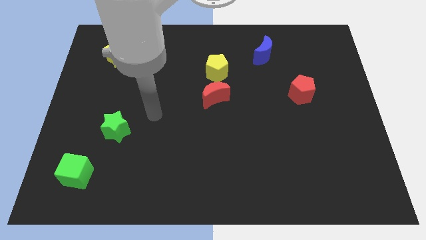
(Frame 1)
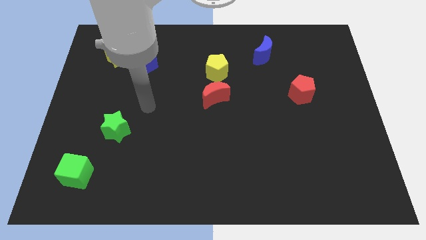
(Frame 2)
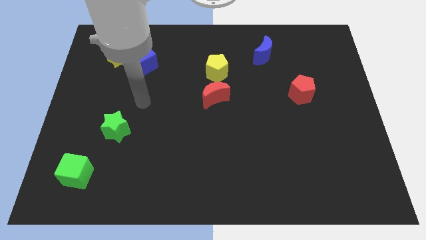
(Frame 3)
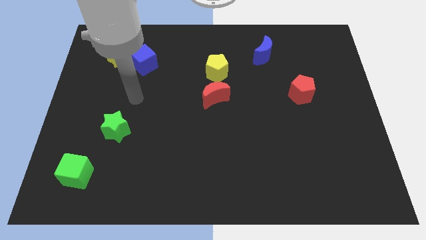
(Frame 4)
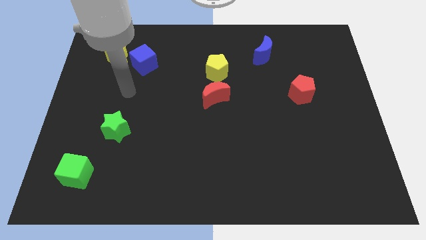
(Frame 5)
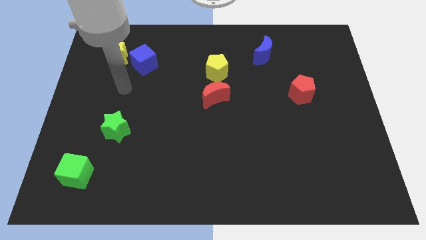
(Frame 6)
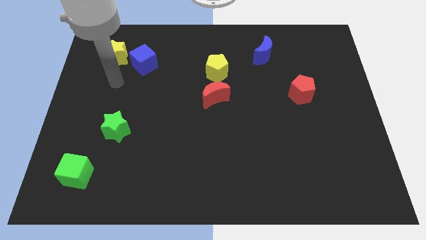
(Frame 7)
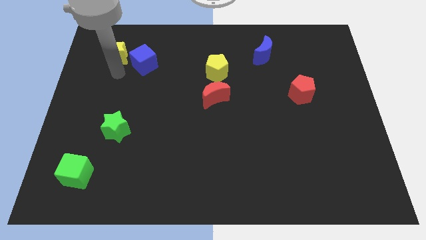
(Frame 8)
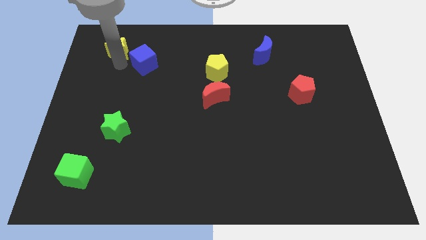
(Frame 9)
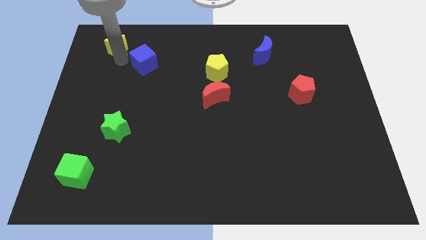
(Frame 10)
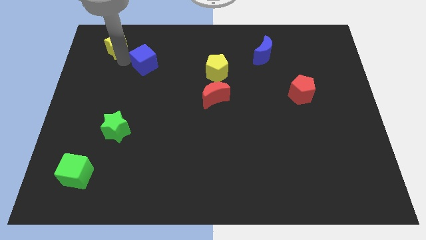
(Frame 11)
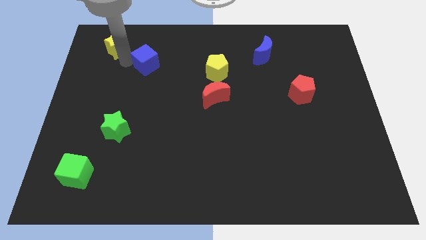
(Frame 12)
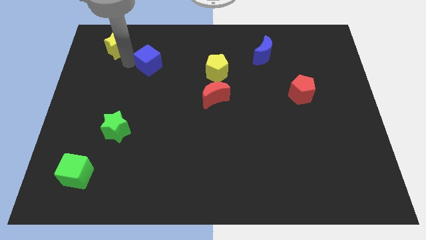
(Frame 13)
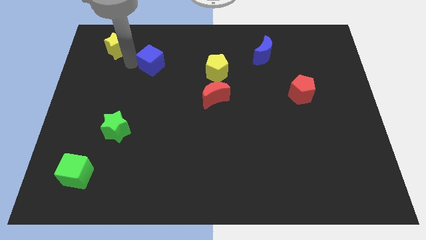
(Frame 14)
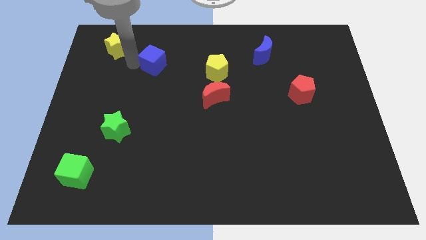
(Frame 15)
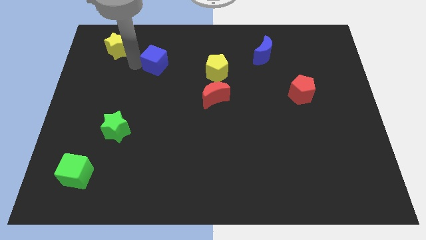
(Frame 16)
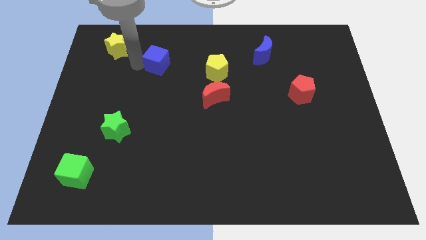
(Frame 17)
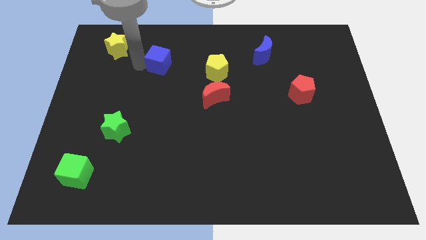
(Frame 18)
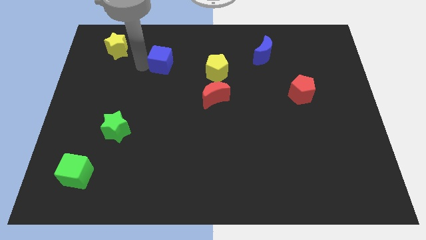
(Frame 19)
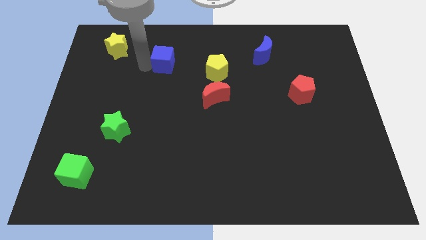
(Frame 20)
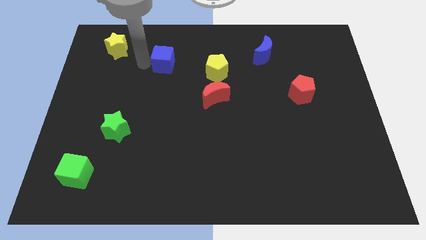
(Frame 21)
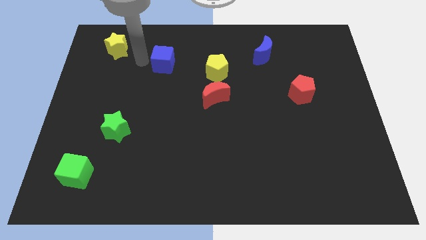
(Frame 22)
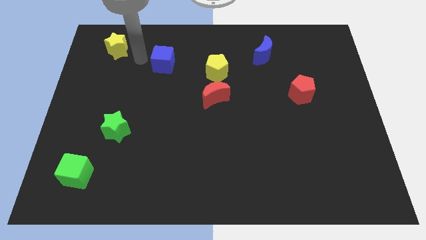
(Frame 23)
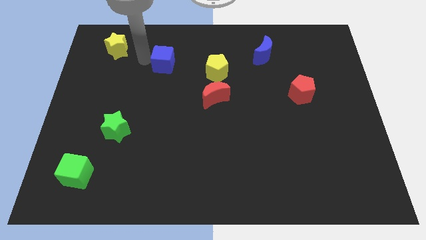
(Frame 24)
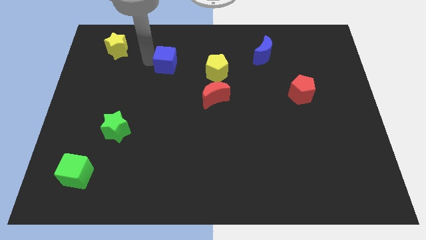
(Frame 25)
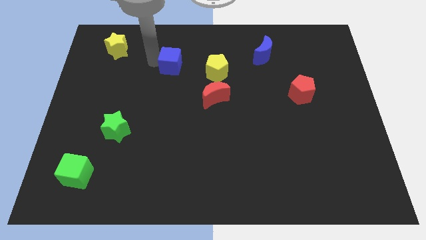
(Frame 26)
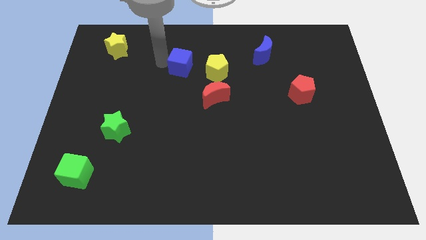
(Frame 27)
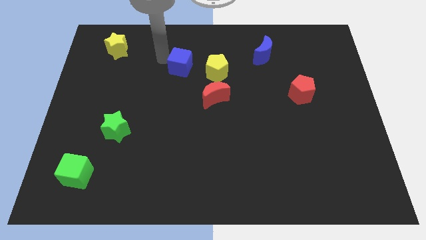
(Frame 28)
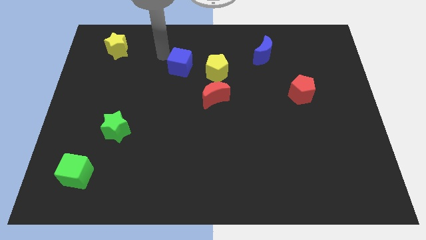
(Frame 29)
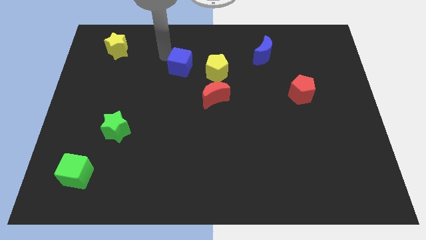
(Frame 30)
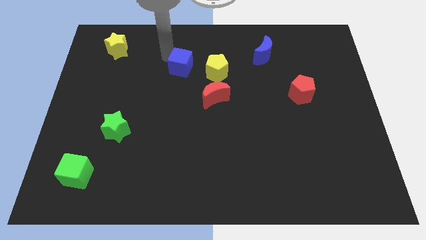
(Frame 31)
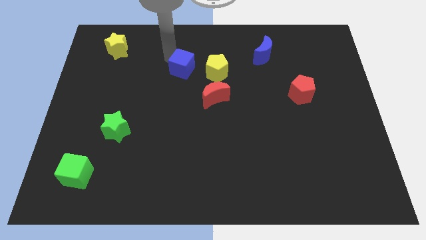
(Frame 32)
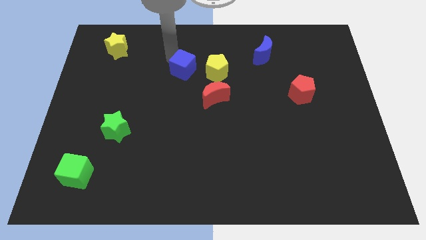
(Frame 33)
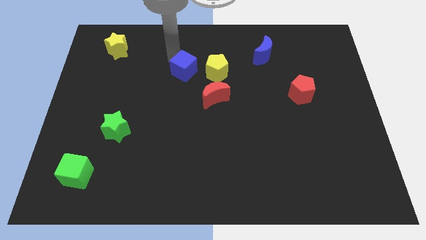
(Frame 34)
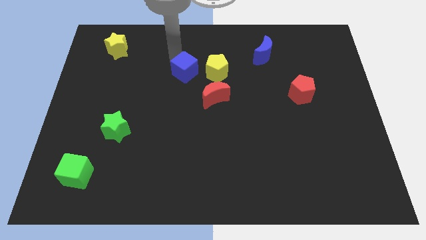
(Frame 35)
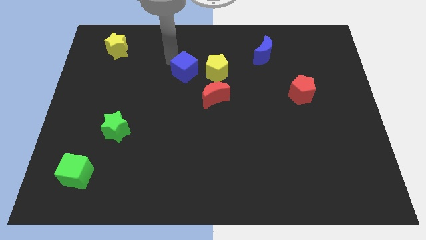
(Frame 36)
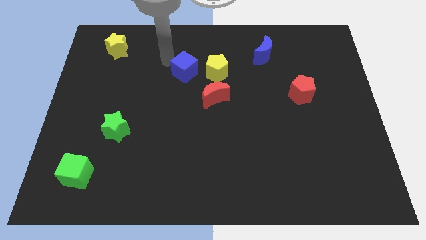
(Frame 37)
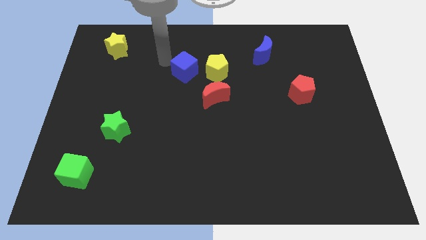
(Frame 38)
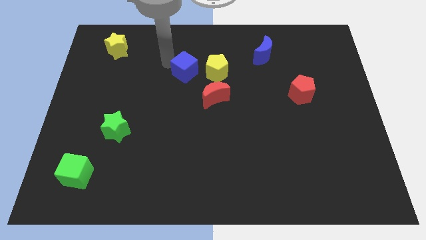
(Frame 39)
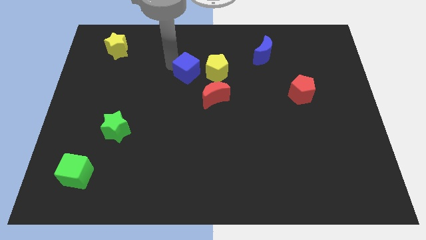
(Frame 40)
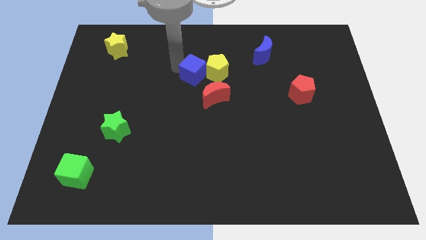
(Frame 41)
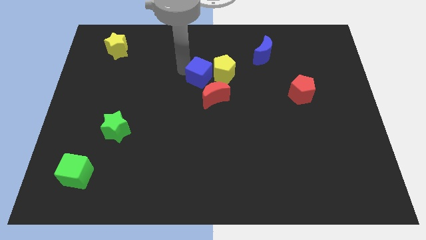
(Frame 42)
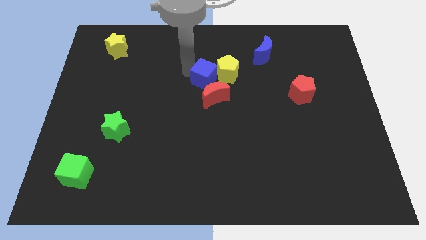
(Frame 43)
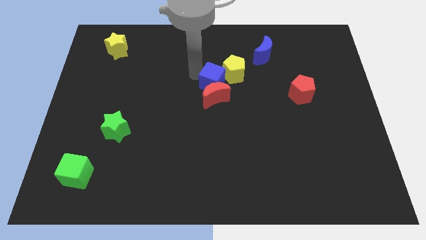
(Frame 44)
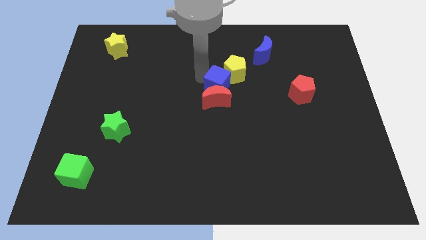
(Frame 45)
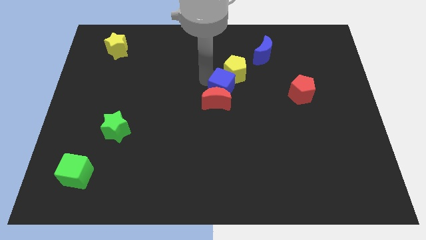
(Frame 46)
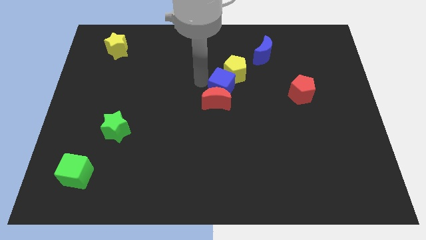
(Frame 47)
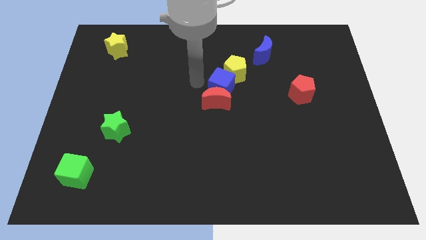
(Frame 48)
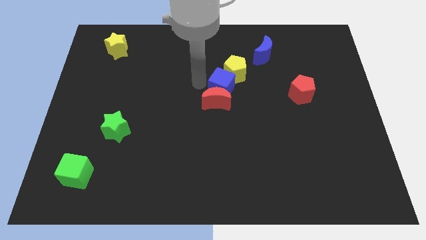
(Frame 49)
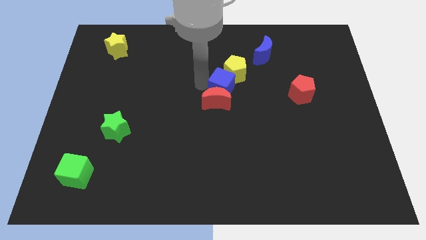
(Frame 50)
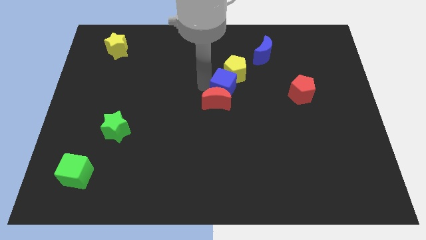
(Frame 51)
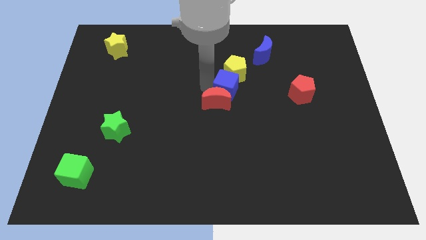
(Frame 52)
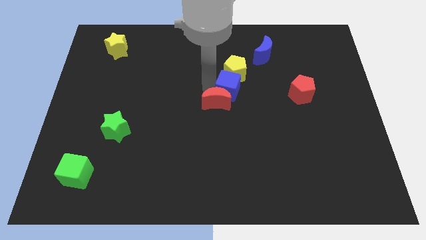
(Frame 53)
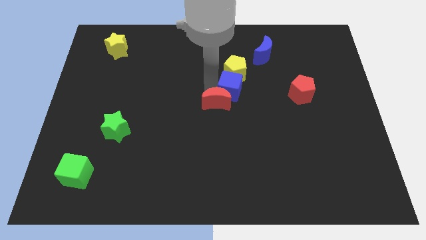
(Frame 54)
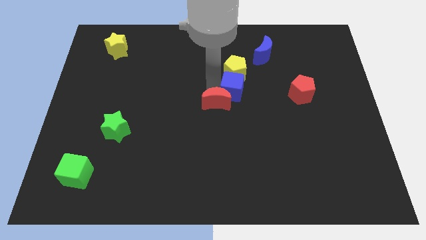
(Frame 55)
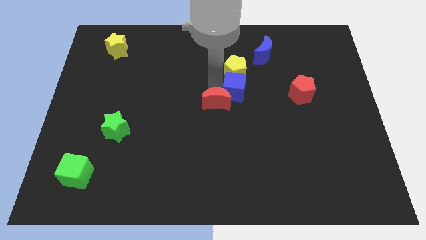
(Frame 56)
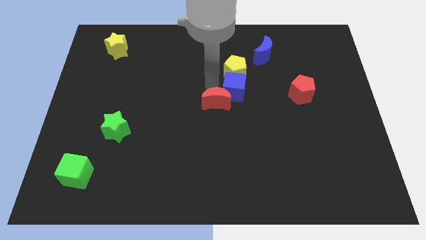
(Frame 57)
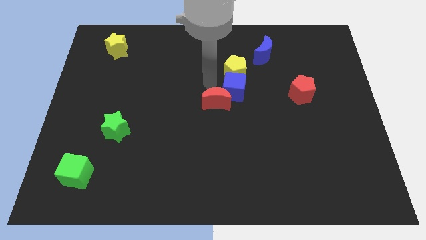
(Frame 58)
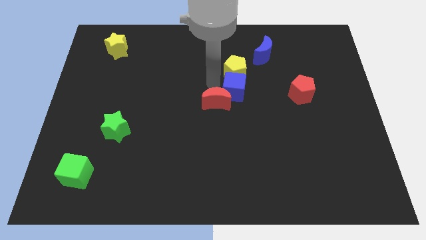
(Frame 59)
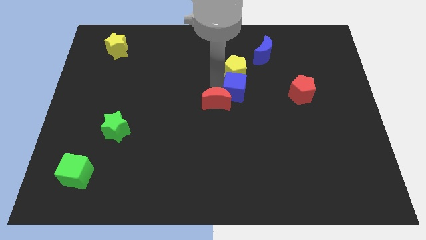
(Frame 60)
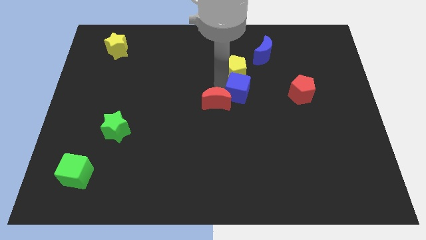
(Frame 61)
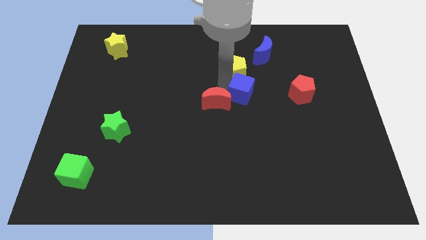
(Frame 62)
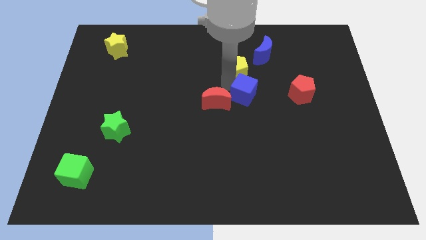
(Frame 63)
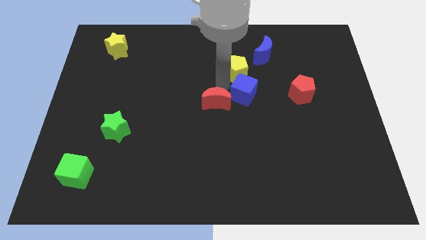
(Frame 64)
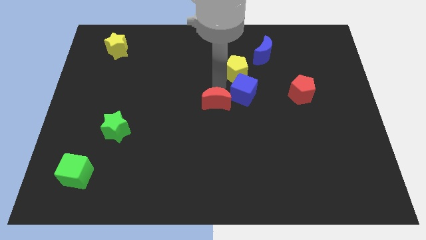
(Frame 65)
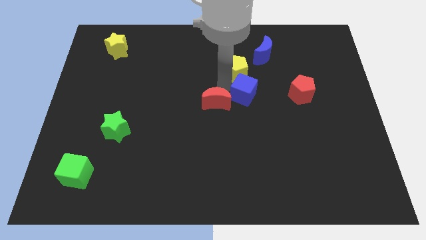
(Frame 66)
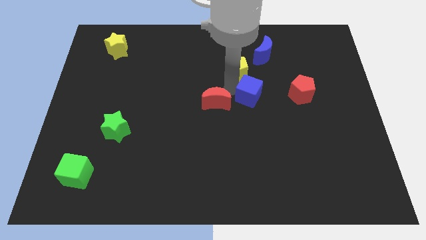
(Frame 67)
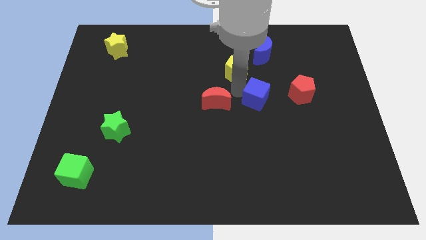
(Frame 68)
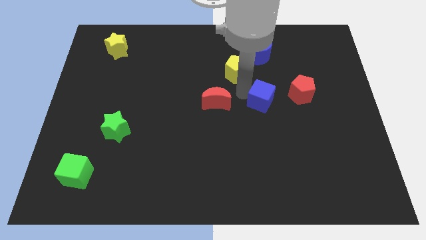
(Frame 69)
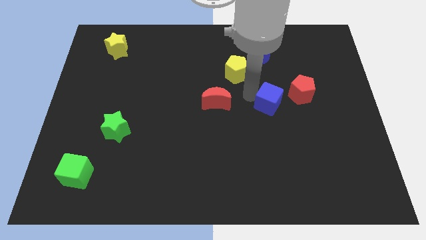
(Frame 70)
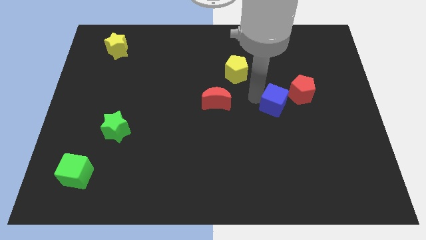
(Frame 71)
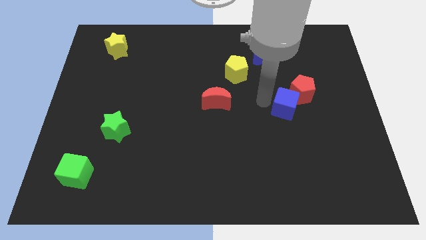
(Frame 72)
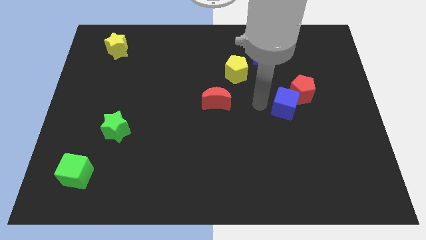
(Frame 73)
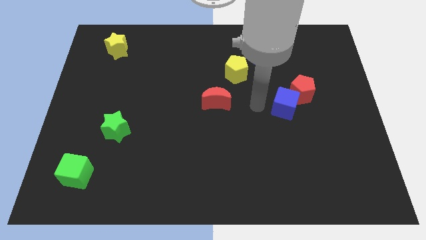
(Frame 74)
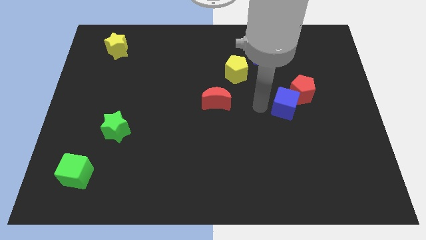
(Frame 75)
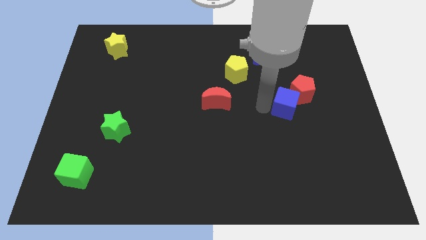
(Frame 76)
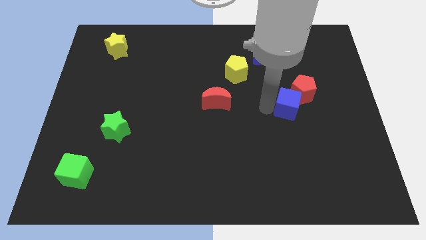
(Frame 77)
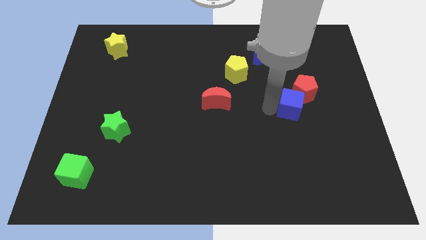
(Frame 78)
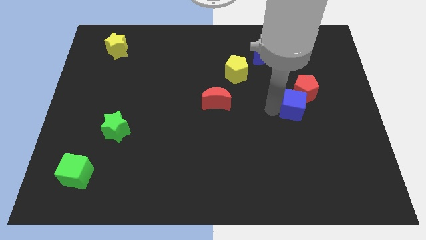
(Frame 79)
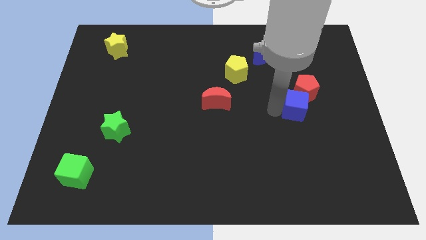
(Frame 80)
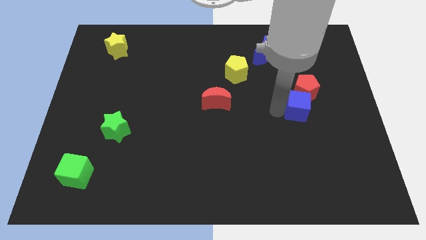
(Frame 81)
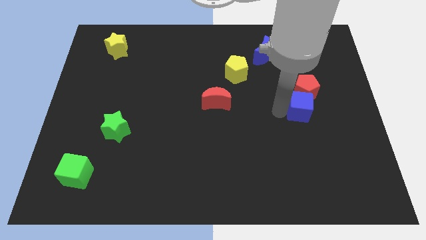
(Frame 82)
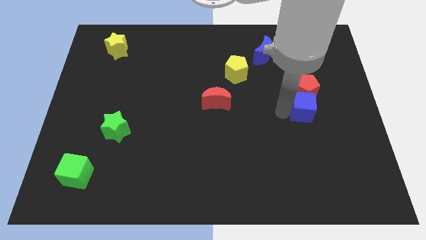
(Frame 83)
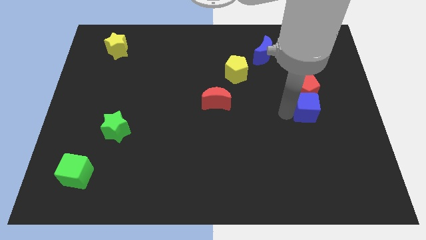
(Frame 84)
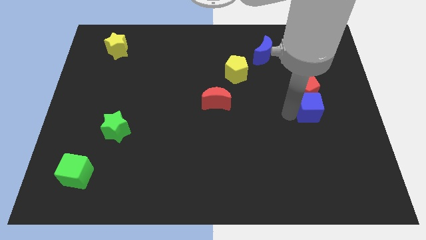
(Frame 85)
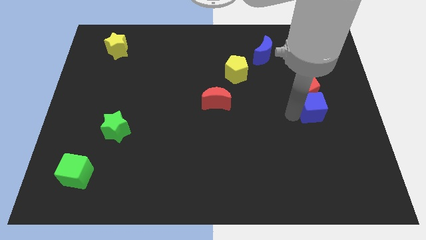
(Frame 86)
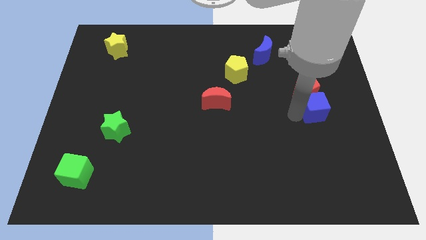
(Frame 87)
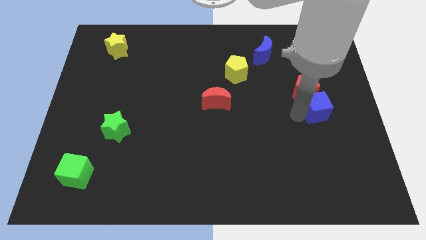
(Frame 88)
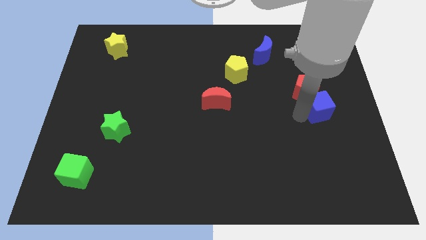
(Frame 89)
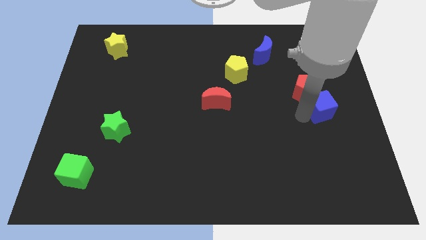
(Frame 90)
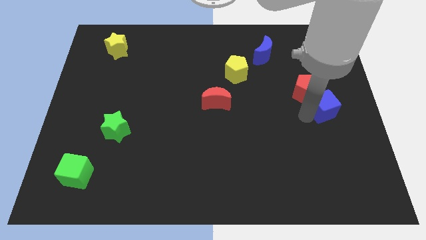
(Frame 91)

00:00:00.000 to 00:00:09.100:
slide the blue cube to the right side of the board
